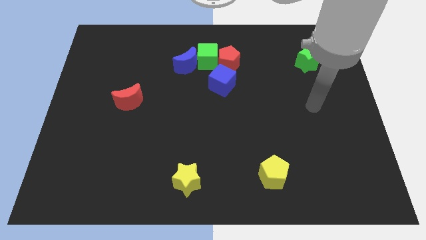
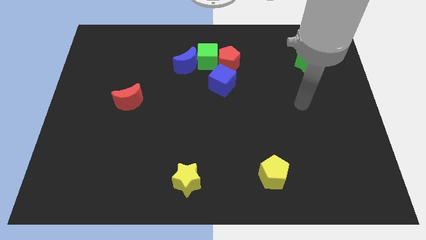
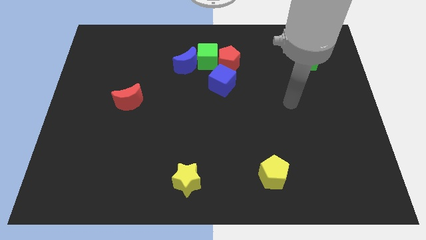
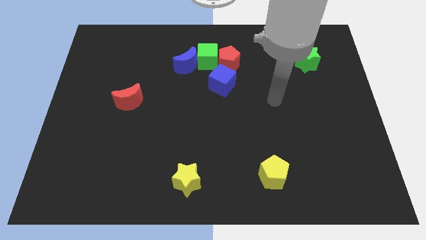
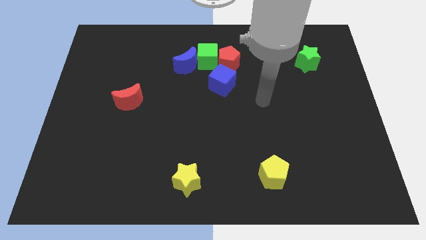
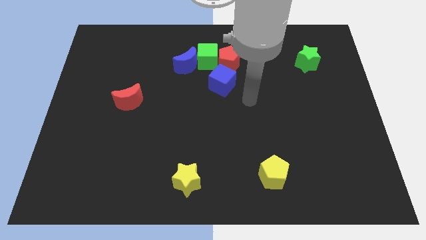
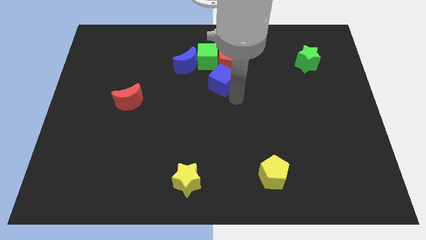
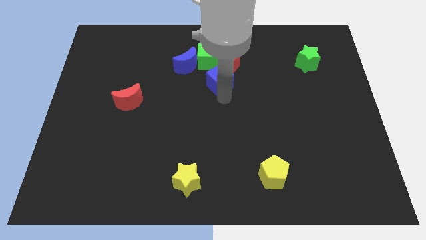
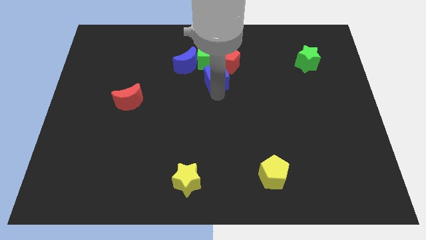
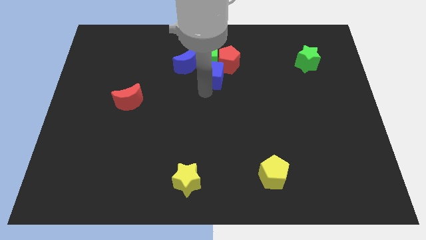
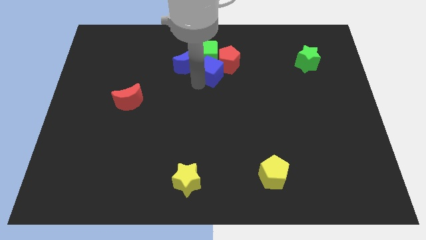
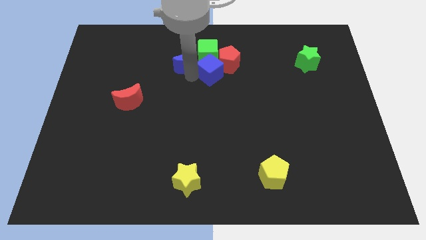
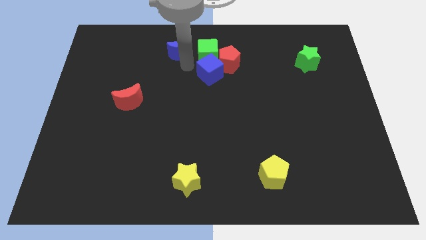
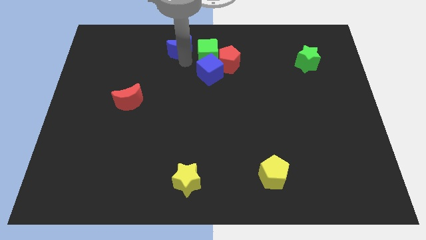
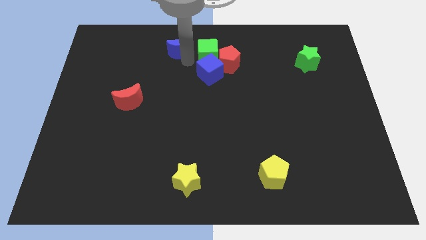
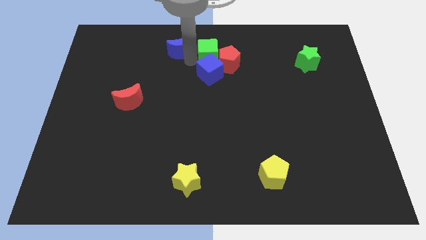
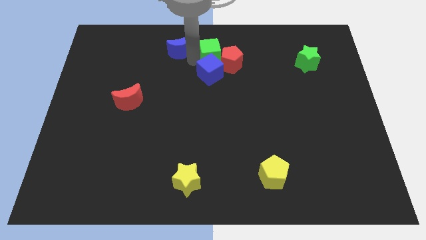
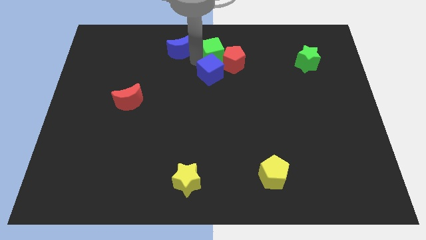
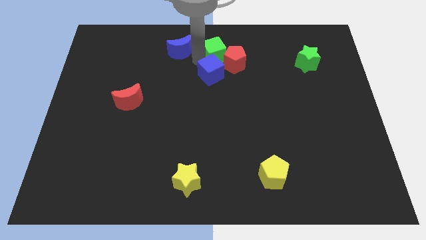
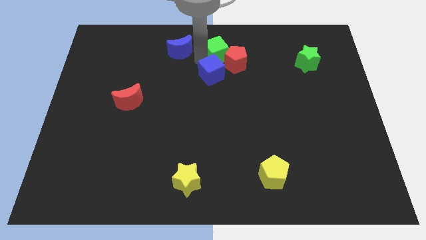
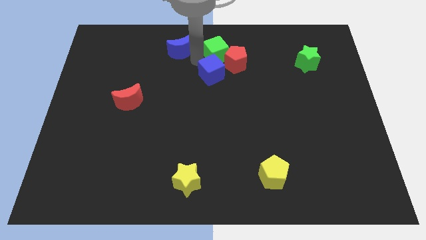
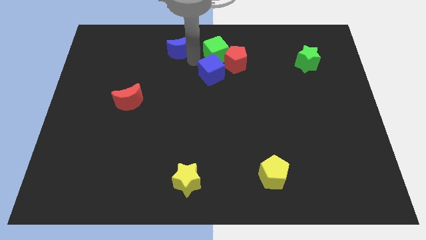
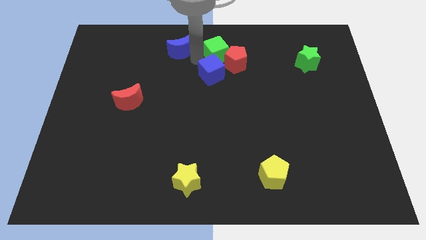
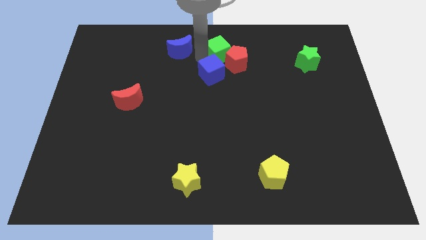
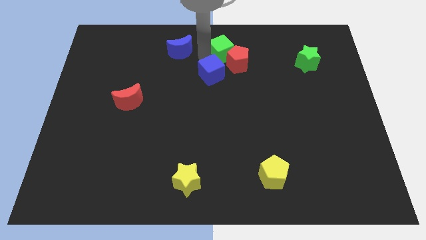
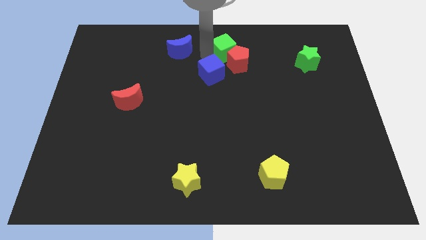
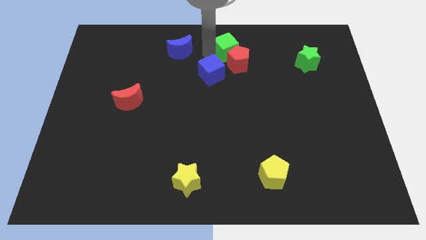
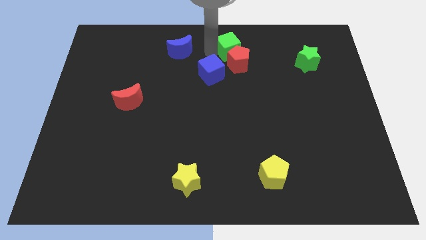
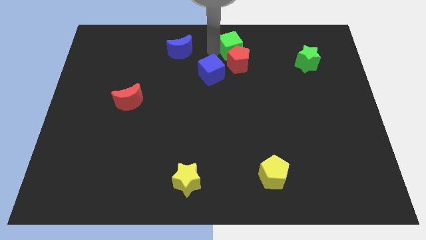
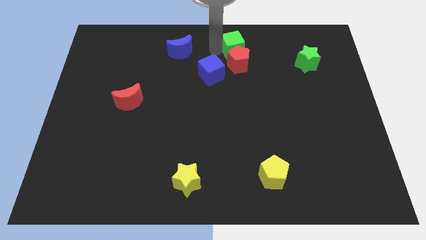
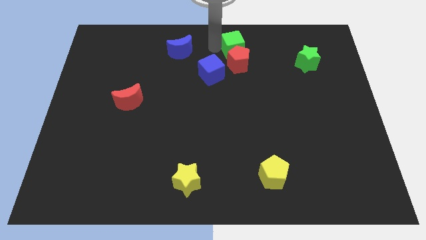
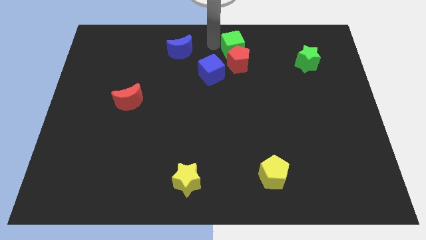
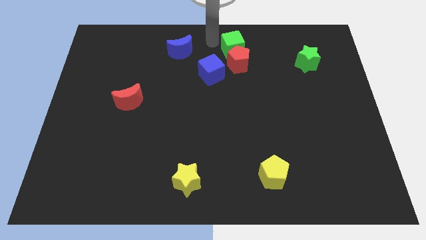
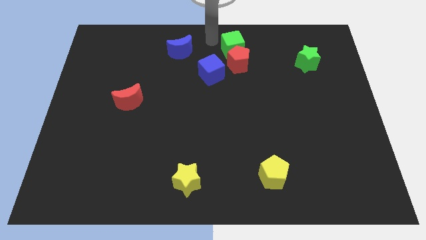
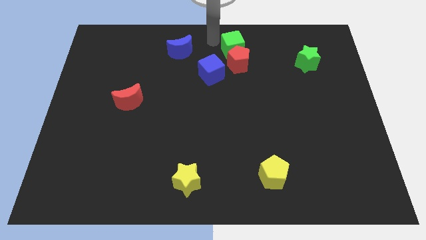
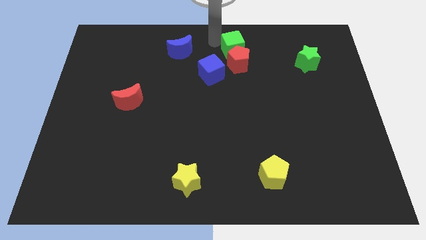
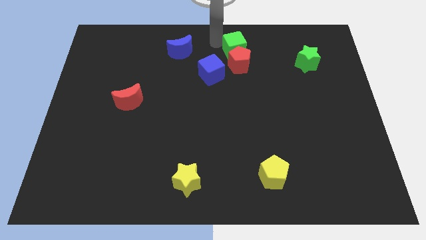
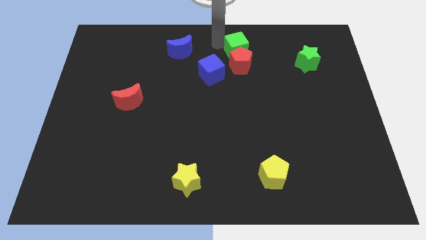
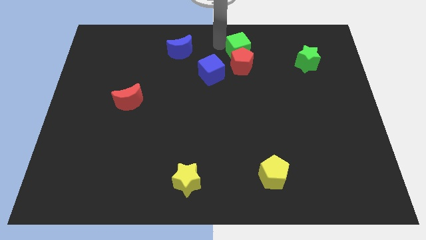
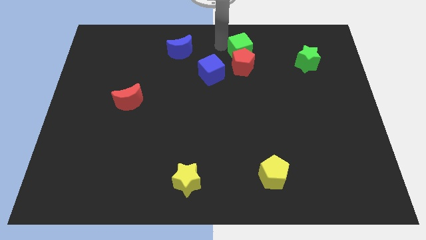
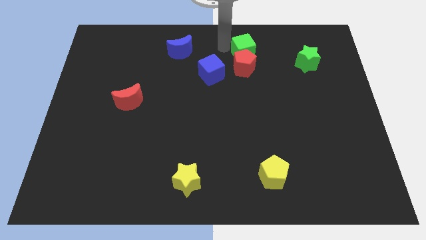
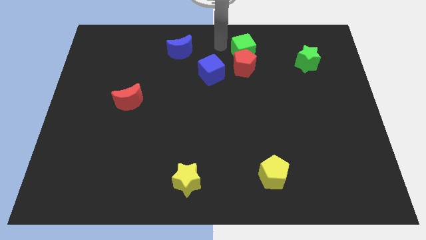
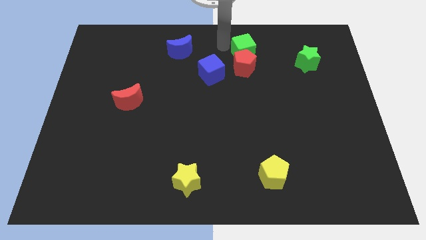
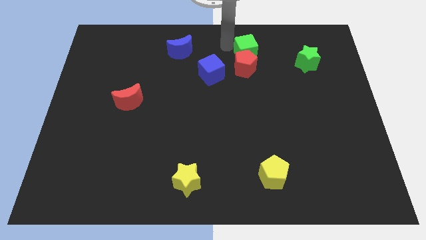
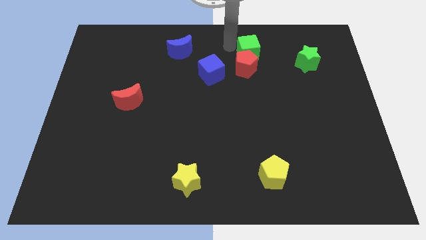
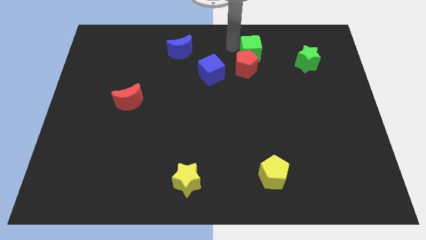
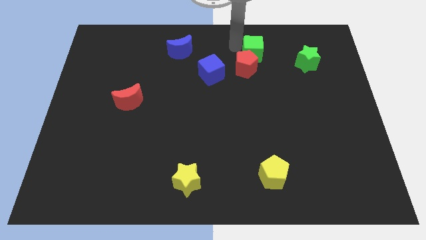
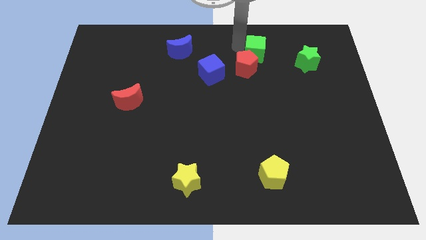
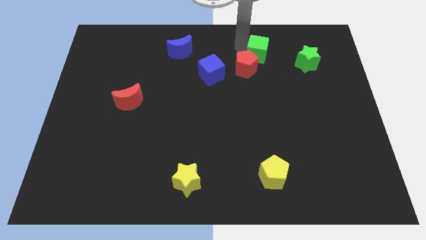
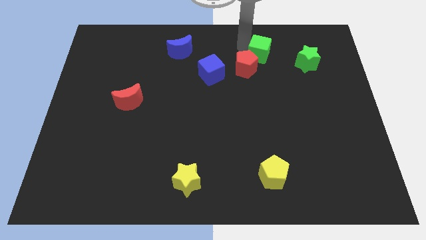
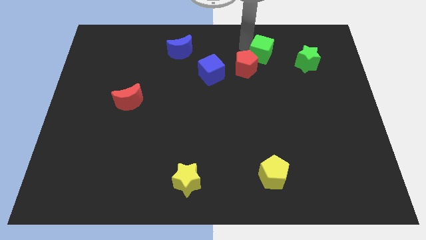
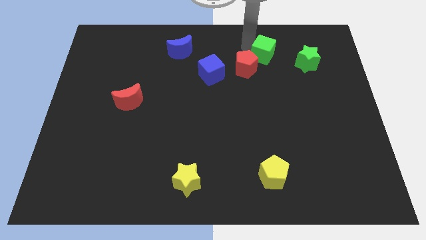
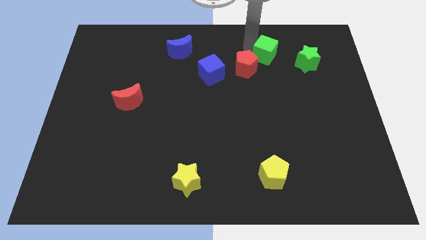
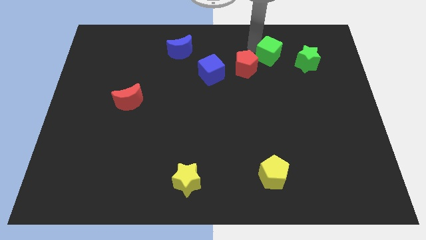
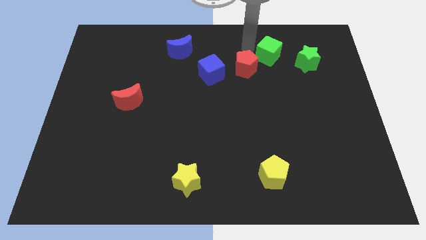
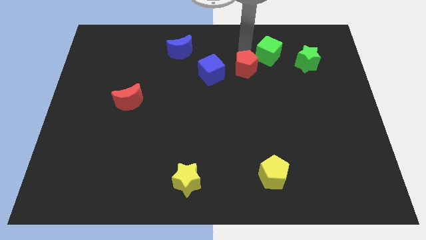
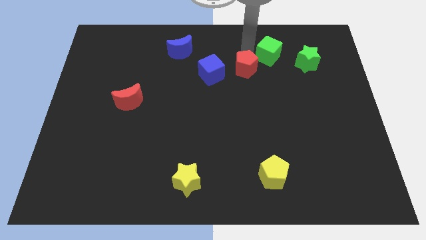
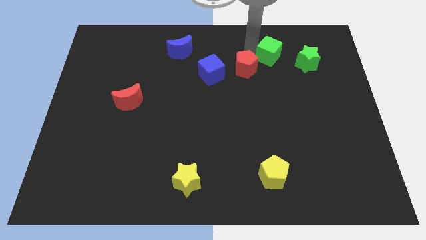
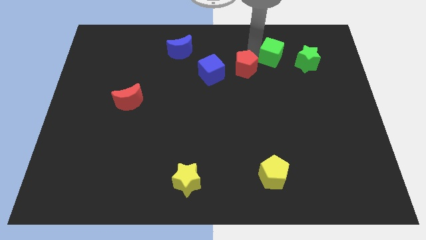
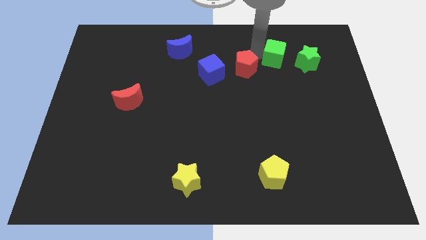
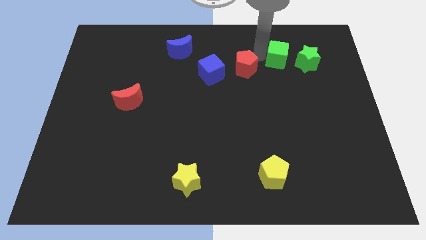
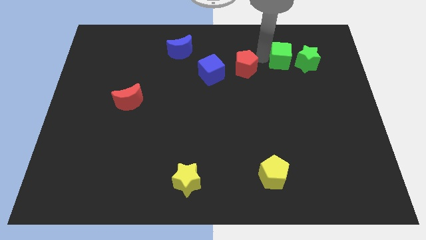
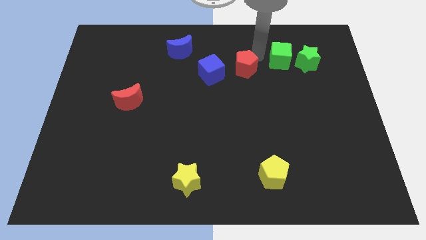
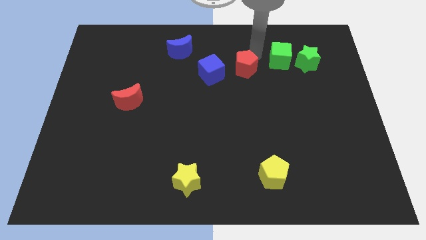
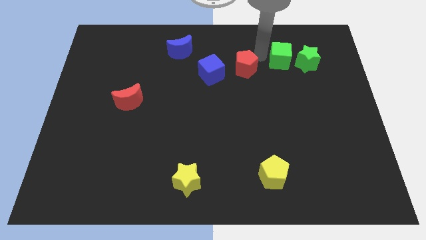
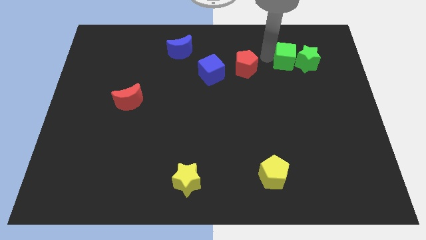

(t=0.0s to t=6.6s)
push the green cube close to the green star

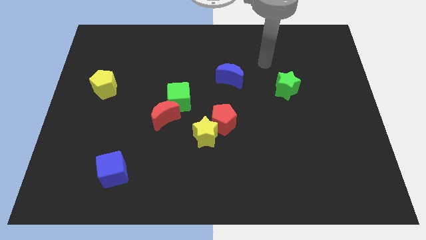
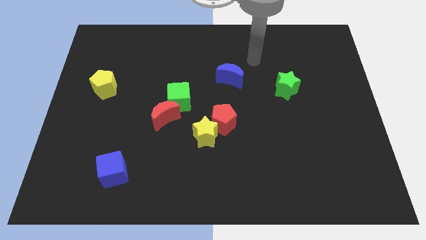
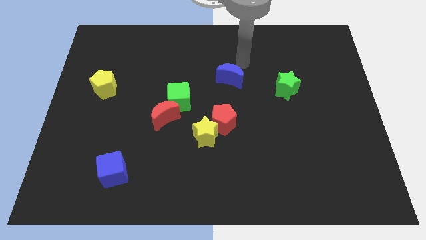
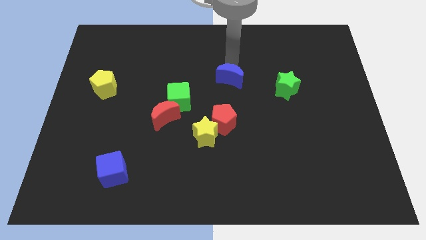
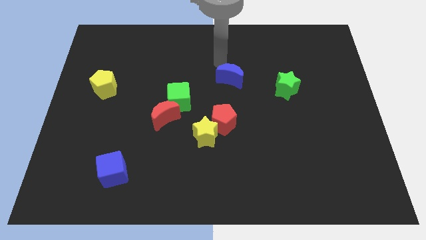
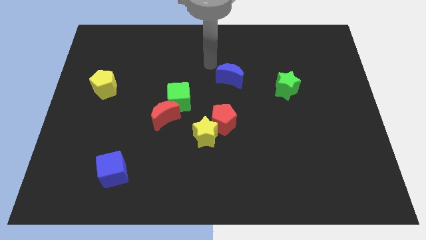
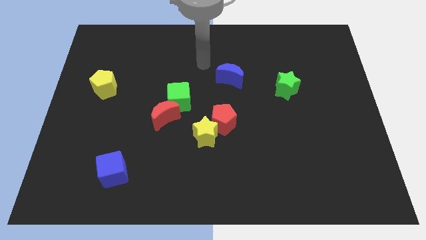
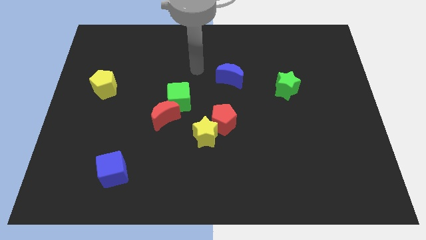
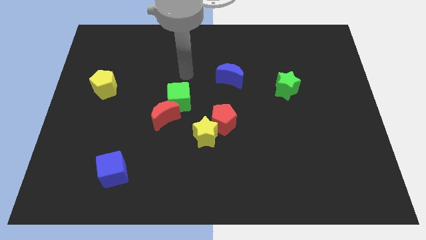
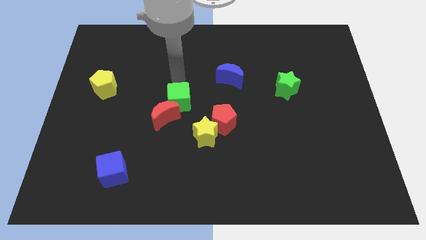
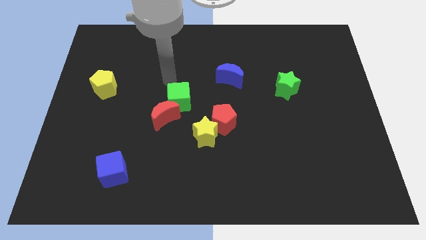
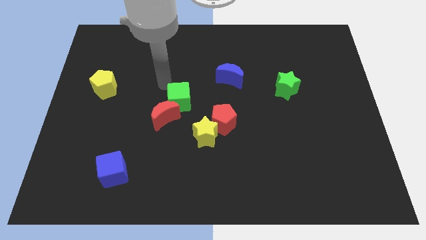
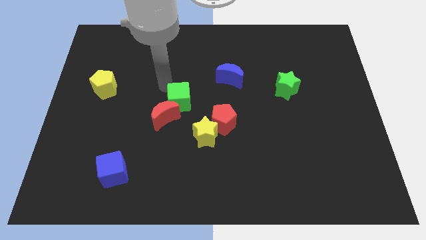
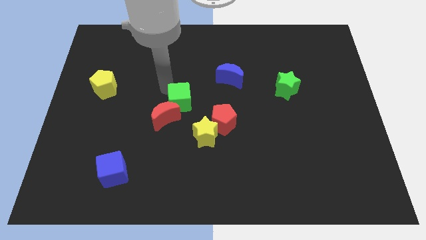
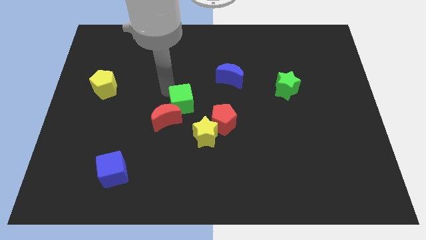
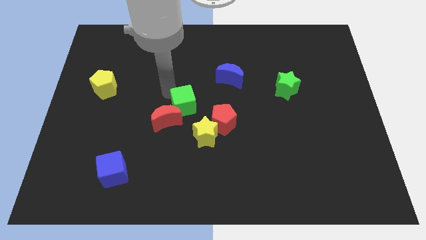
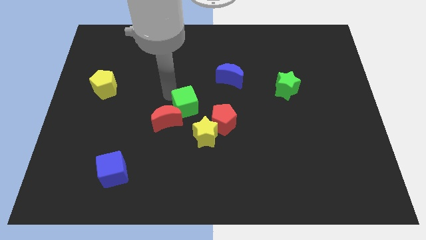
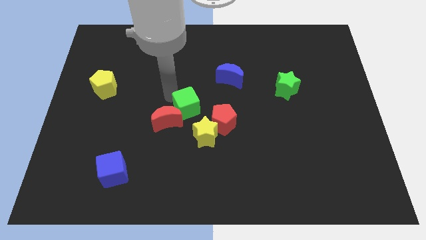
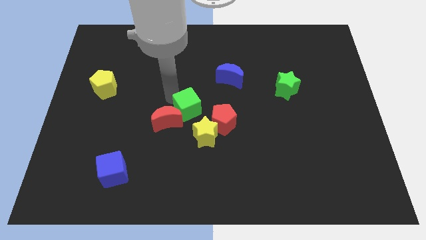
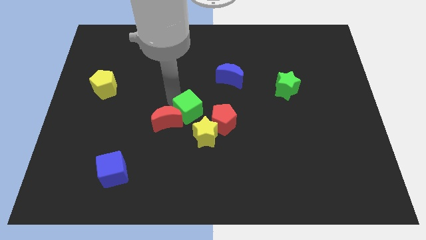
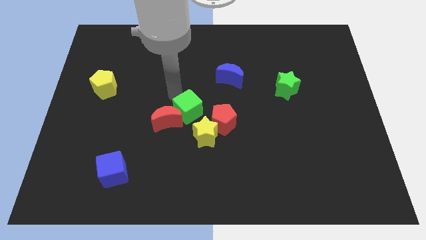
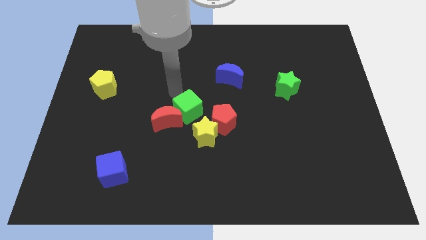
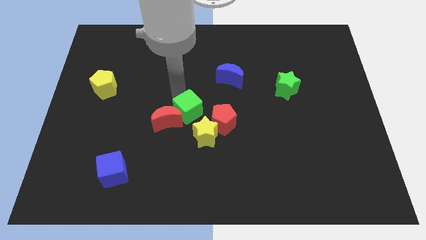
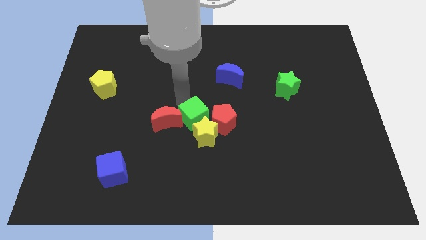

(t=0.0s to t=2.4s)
move the green cube to the yellow star
